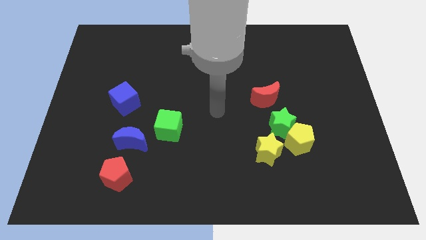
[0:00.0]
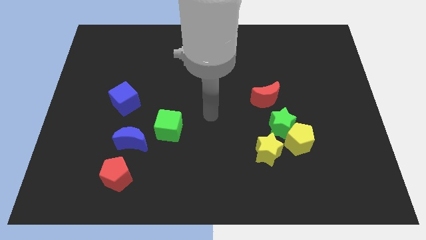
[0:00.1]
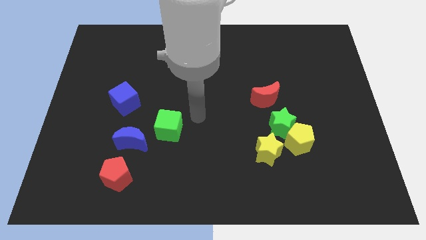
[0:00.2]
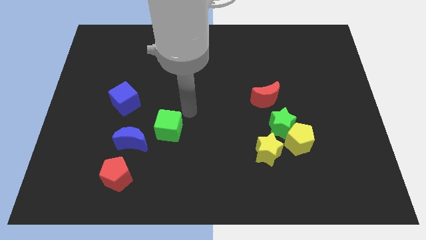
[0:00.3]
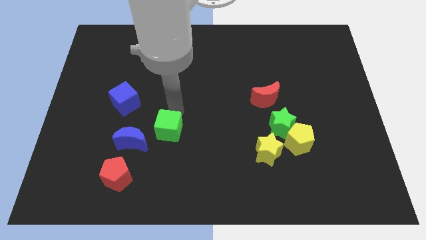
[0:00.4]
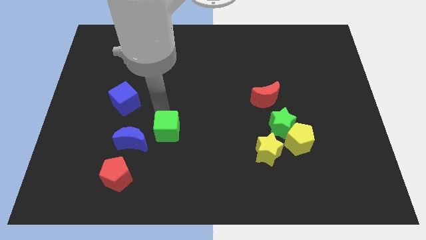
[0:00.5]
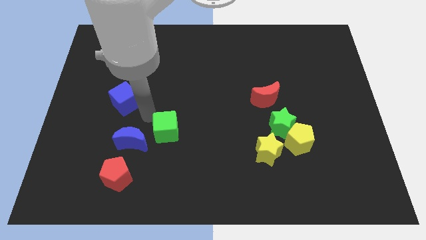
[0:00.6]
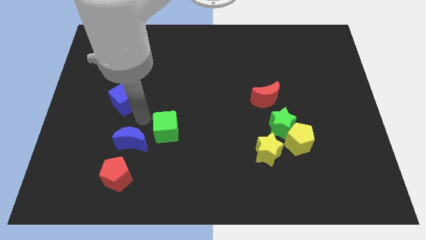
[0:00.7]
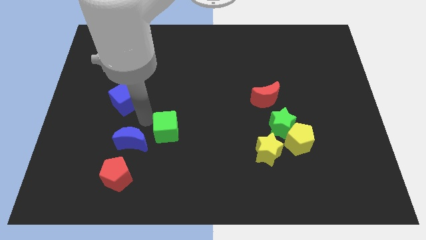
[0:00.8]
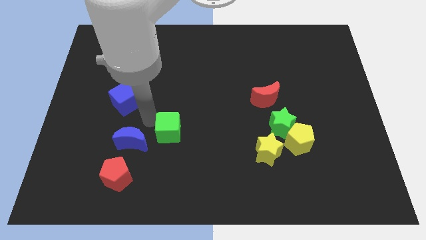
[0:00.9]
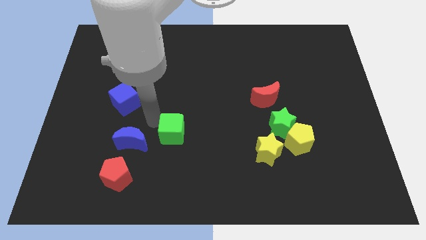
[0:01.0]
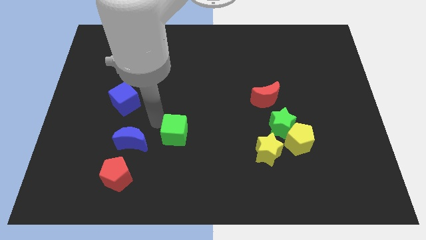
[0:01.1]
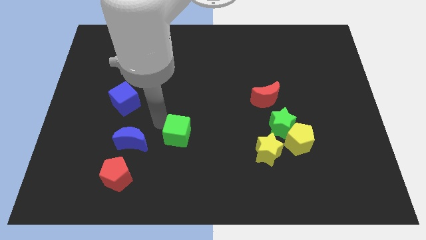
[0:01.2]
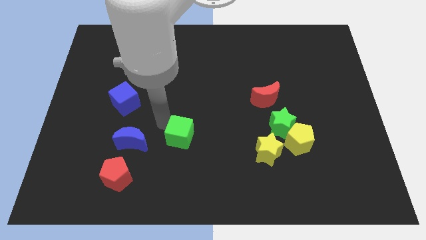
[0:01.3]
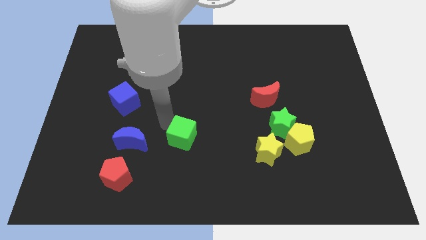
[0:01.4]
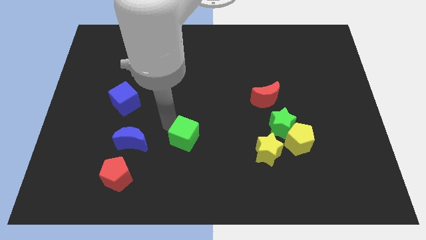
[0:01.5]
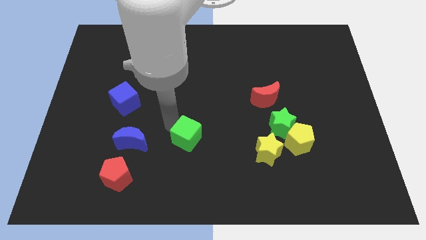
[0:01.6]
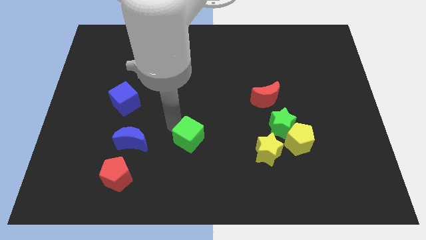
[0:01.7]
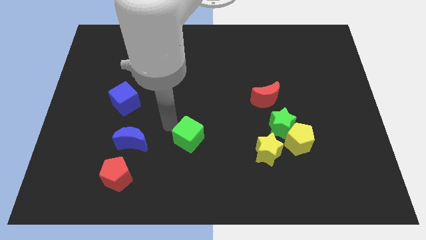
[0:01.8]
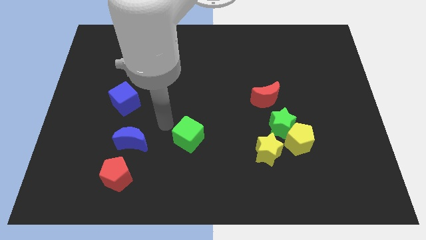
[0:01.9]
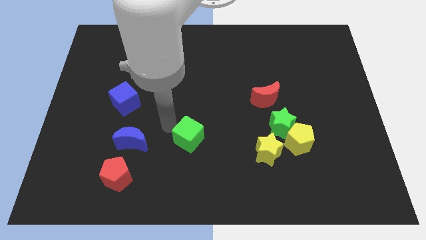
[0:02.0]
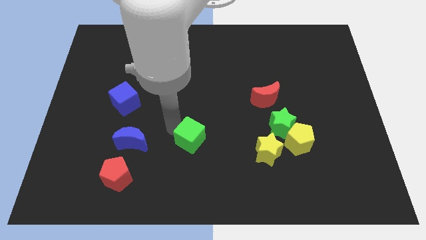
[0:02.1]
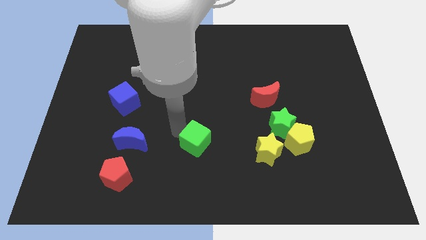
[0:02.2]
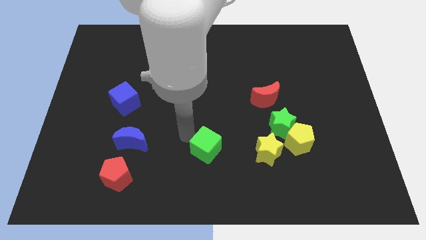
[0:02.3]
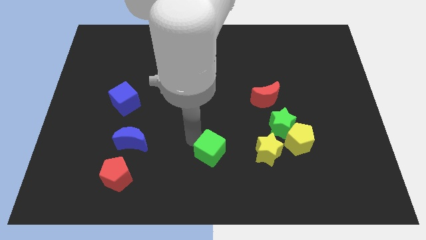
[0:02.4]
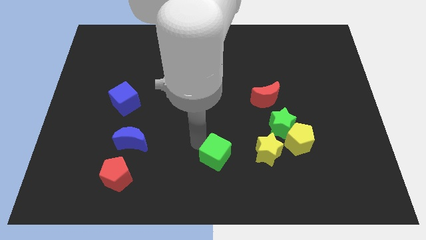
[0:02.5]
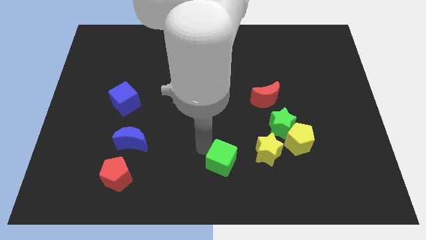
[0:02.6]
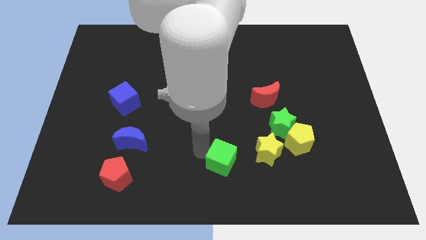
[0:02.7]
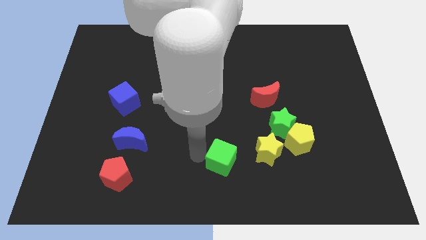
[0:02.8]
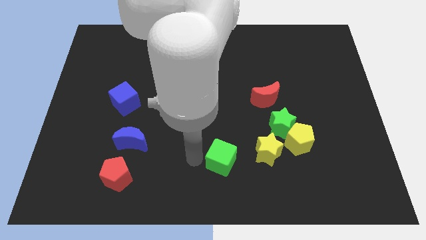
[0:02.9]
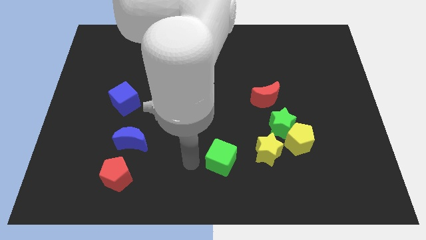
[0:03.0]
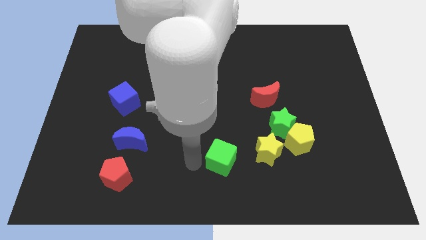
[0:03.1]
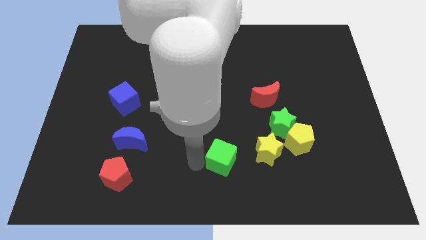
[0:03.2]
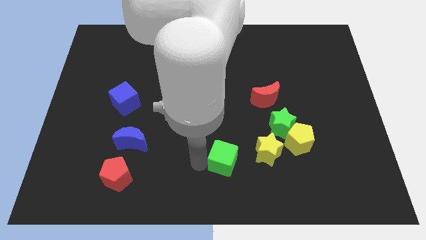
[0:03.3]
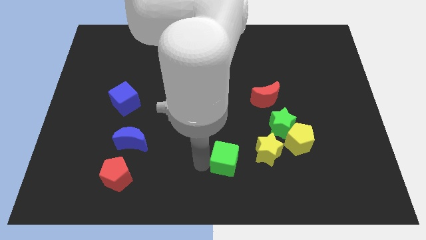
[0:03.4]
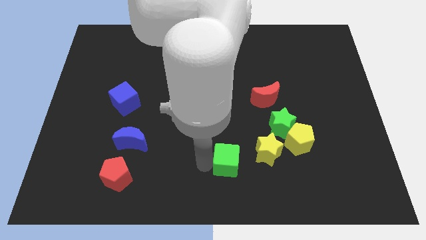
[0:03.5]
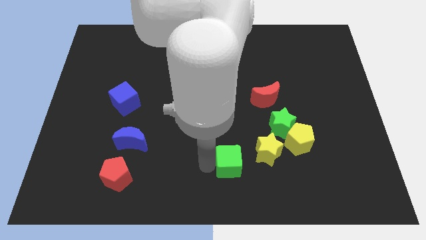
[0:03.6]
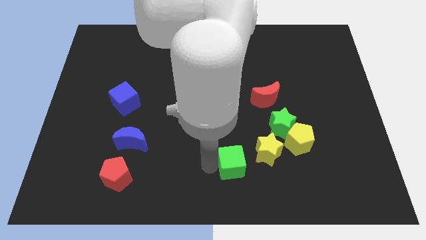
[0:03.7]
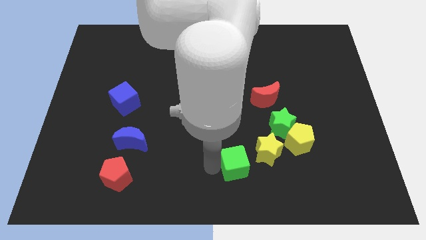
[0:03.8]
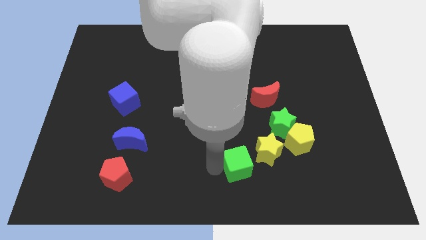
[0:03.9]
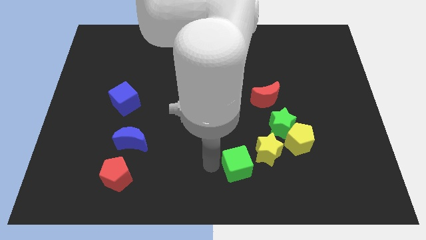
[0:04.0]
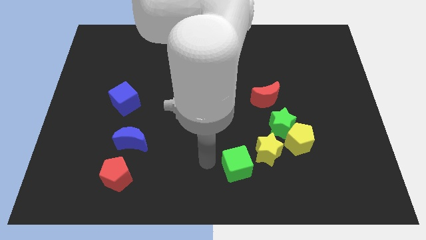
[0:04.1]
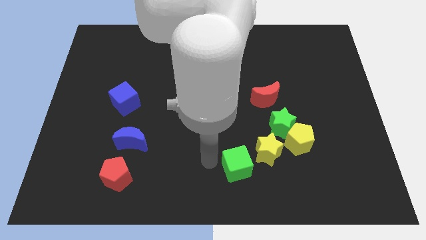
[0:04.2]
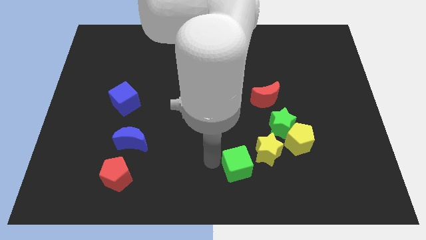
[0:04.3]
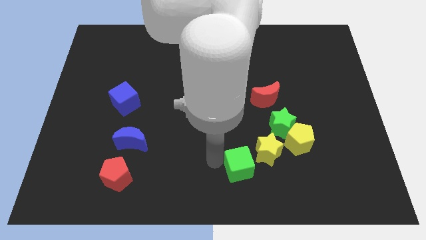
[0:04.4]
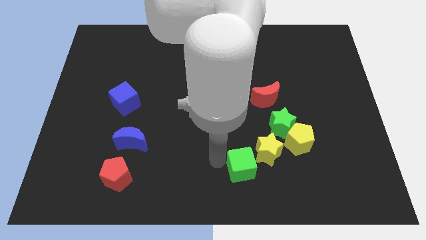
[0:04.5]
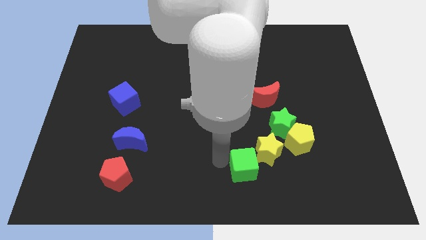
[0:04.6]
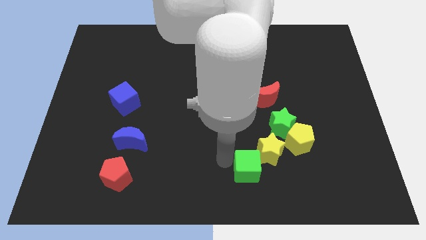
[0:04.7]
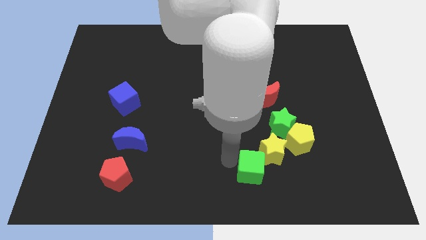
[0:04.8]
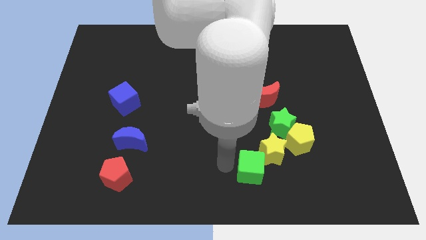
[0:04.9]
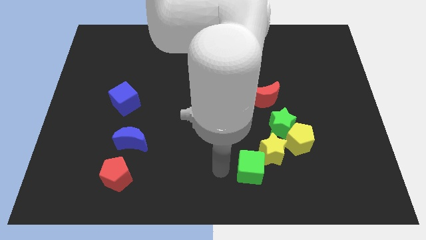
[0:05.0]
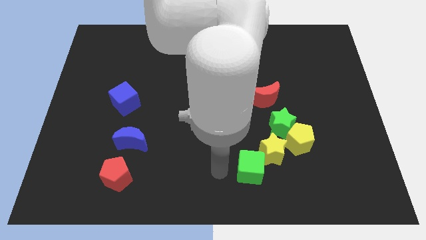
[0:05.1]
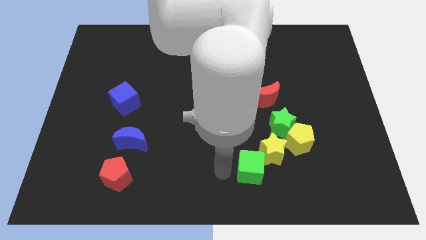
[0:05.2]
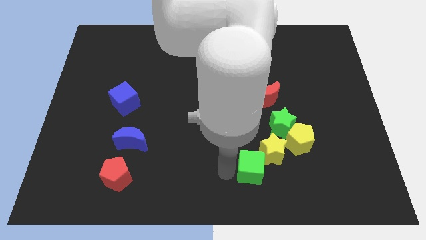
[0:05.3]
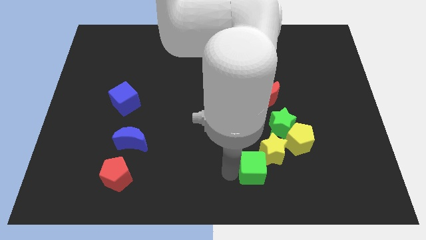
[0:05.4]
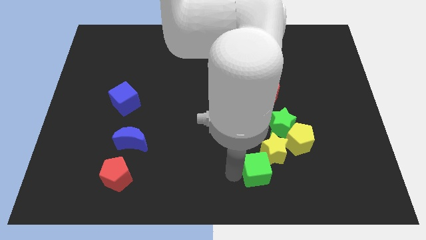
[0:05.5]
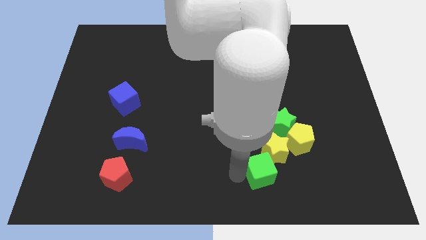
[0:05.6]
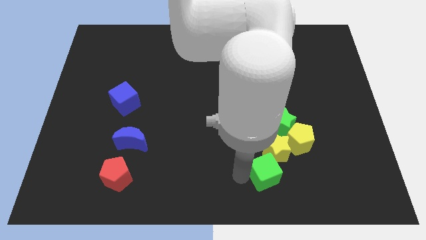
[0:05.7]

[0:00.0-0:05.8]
put the green cube below the green star

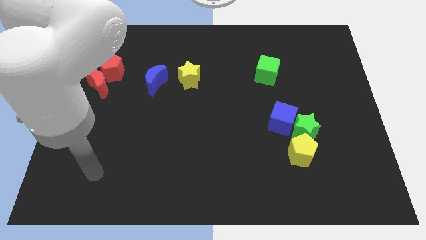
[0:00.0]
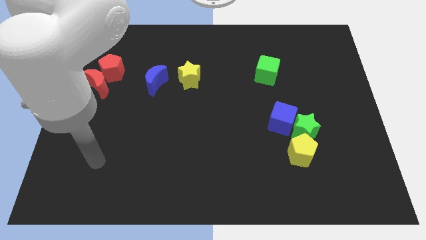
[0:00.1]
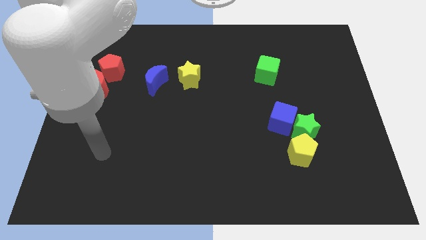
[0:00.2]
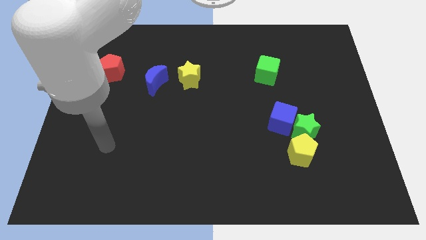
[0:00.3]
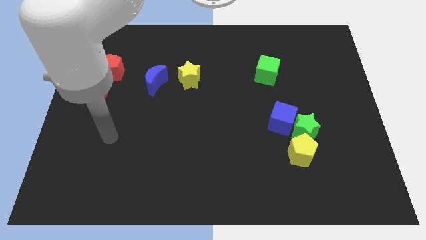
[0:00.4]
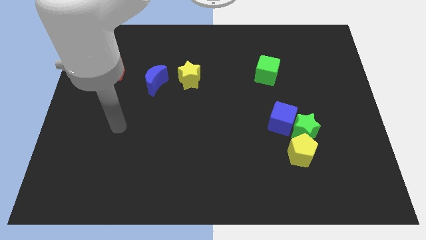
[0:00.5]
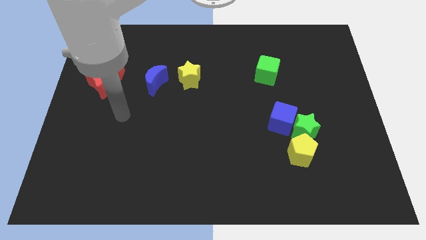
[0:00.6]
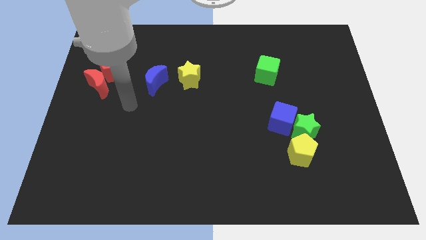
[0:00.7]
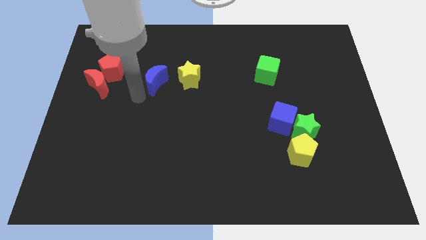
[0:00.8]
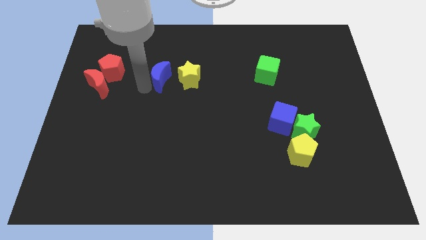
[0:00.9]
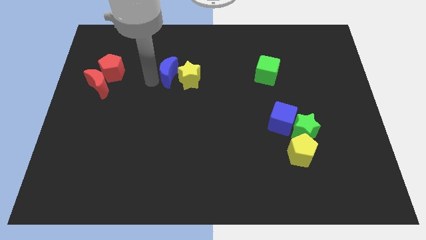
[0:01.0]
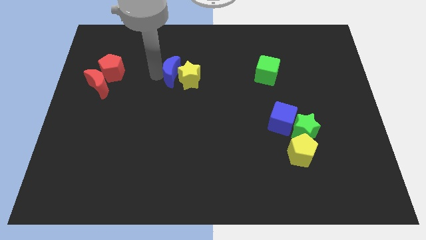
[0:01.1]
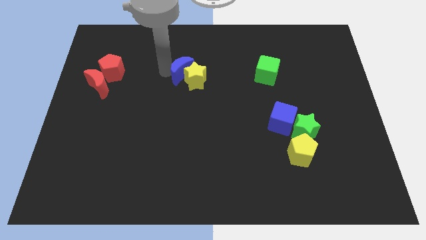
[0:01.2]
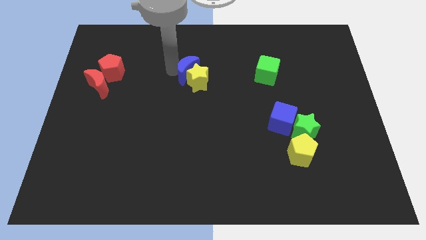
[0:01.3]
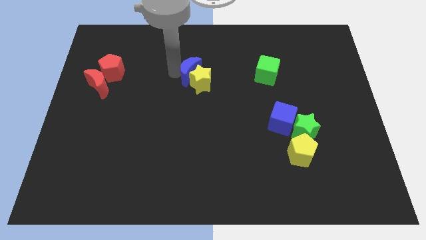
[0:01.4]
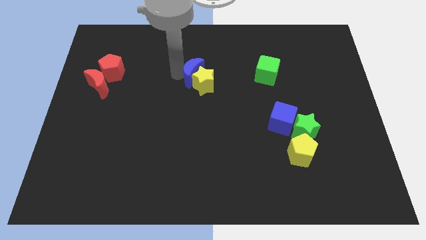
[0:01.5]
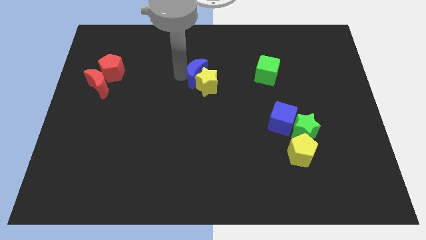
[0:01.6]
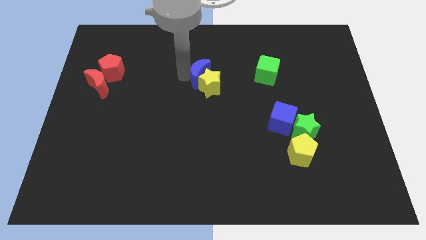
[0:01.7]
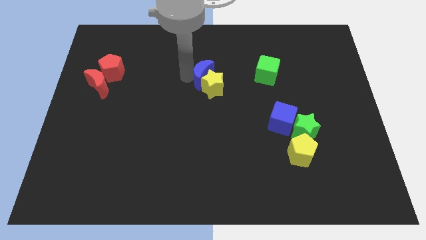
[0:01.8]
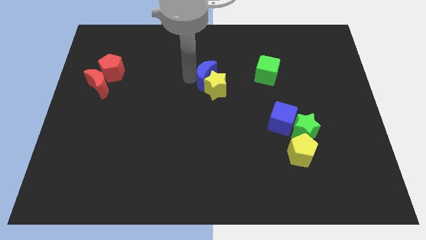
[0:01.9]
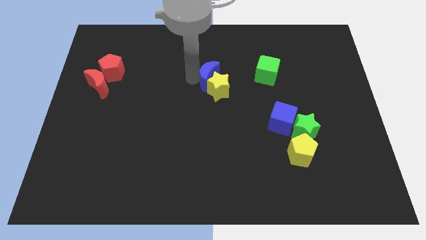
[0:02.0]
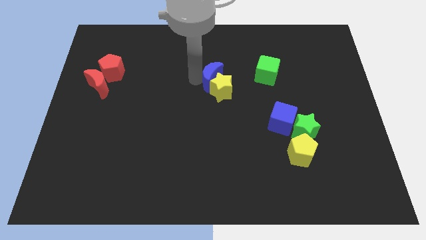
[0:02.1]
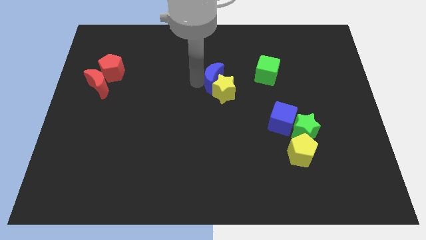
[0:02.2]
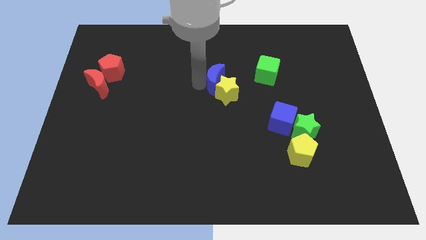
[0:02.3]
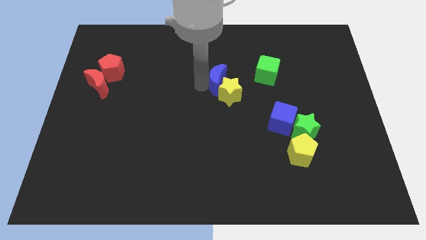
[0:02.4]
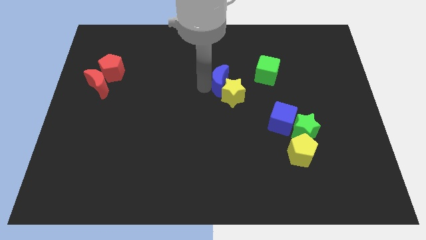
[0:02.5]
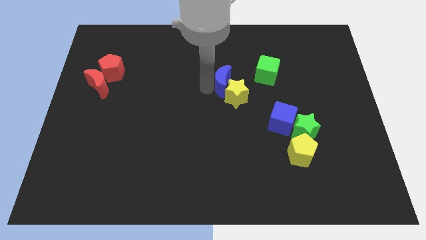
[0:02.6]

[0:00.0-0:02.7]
move the yellow star to the top left side of the blue cube
